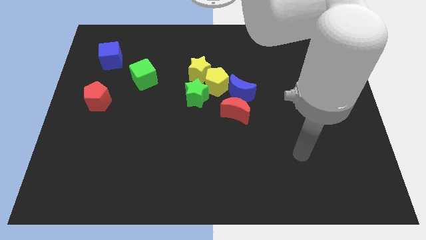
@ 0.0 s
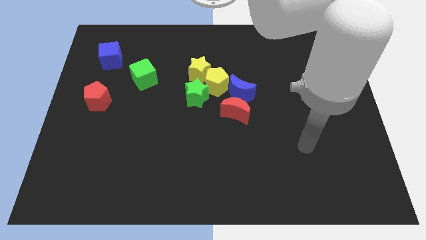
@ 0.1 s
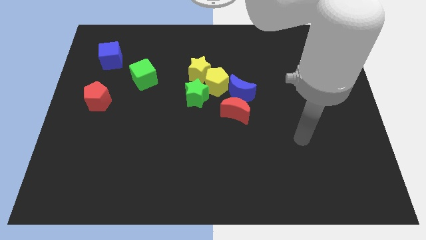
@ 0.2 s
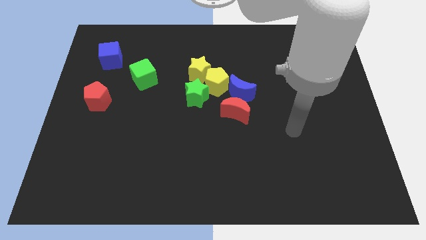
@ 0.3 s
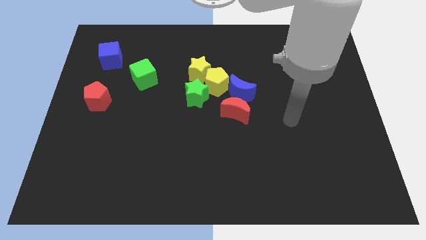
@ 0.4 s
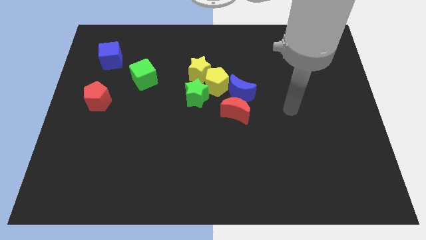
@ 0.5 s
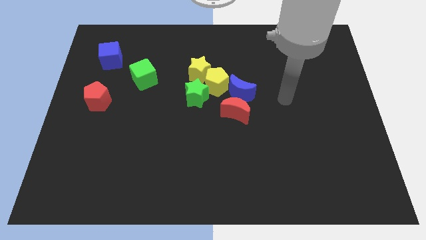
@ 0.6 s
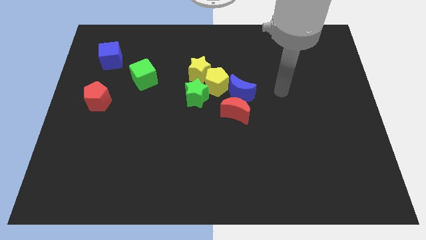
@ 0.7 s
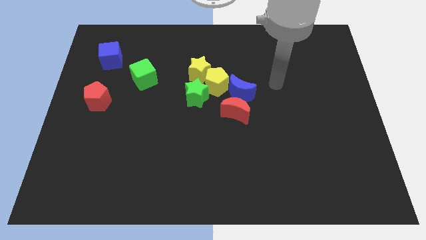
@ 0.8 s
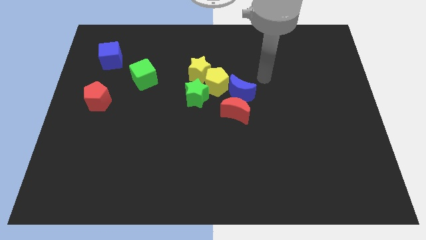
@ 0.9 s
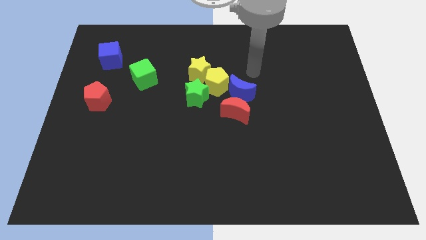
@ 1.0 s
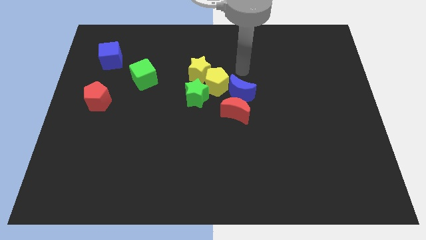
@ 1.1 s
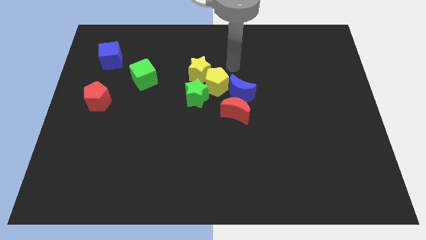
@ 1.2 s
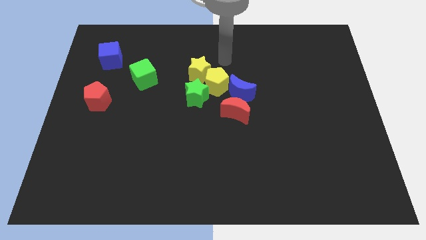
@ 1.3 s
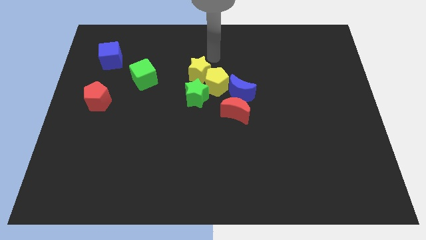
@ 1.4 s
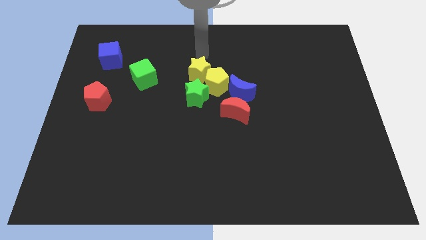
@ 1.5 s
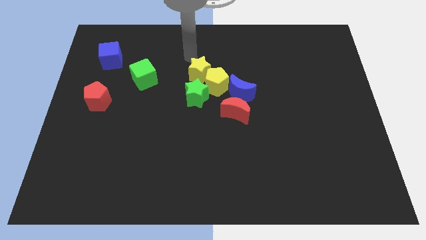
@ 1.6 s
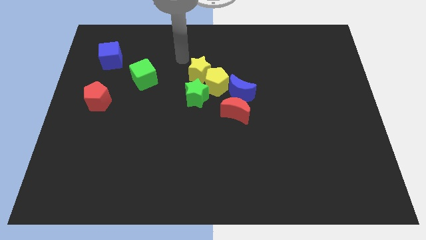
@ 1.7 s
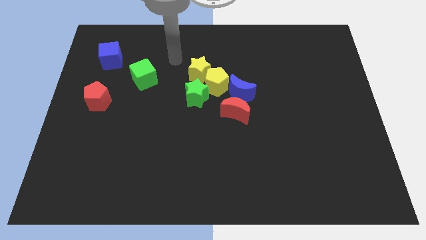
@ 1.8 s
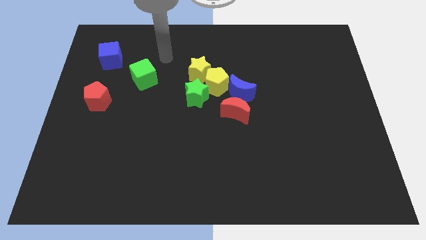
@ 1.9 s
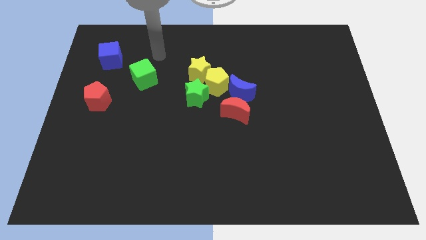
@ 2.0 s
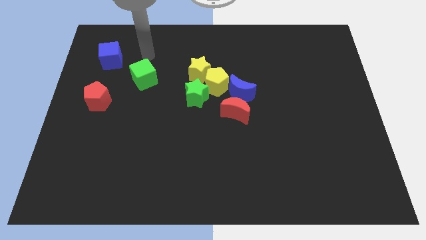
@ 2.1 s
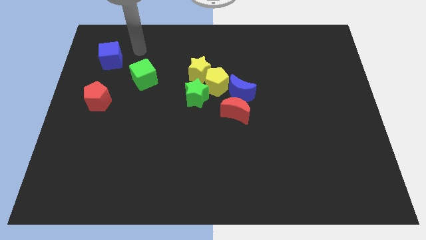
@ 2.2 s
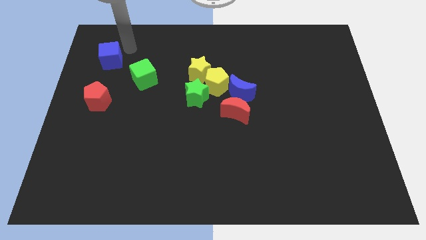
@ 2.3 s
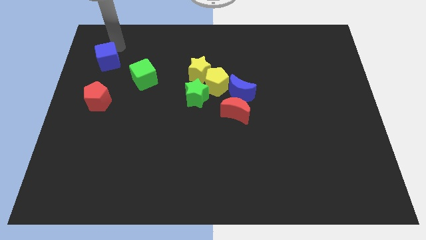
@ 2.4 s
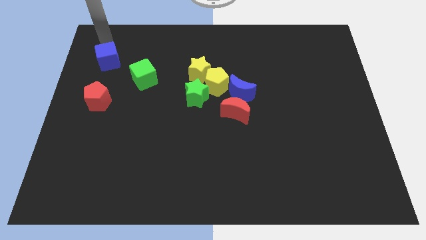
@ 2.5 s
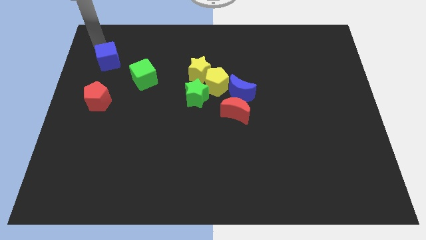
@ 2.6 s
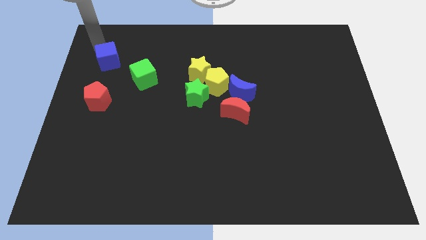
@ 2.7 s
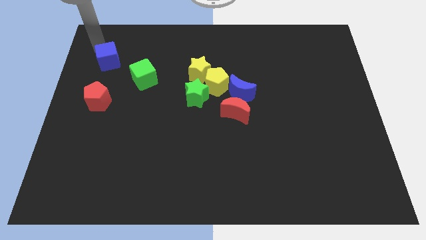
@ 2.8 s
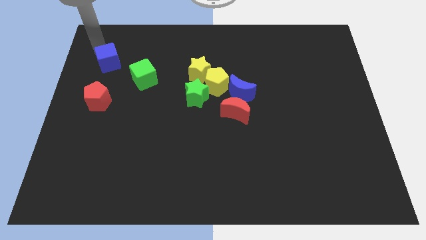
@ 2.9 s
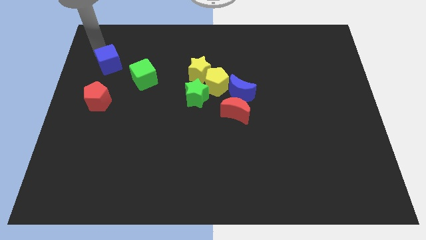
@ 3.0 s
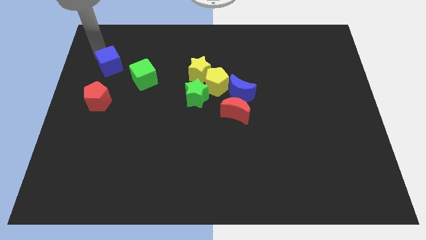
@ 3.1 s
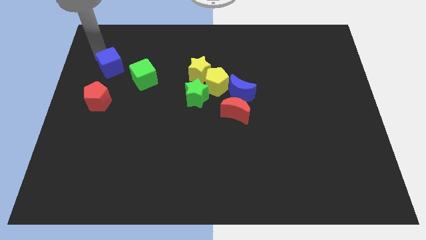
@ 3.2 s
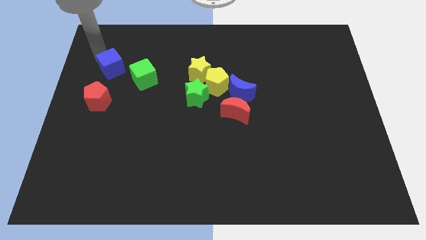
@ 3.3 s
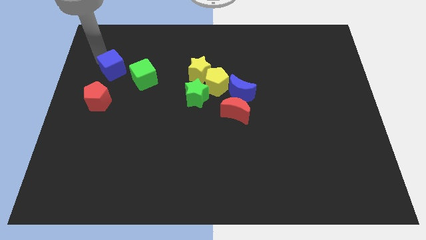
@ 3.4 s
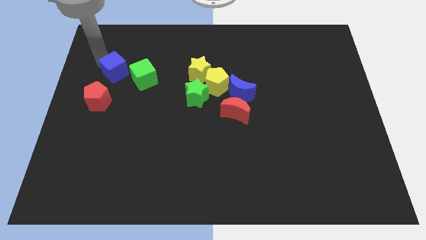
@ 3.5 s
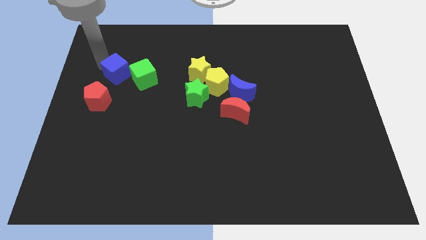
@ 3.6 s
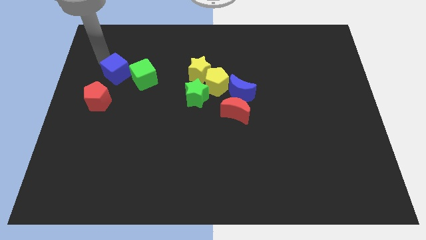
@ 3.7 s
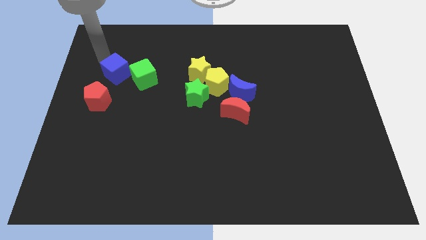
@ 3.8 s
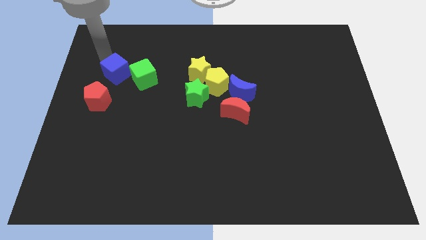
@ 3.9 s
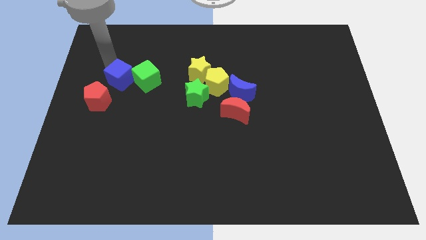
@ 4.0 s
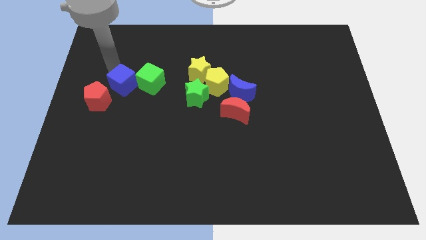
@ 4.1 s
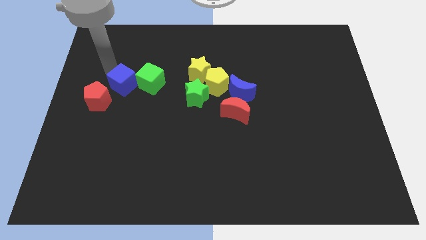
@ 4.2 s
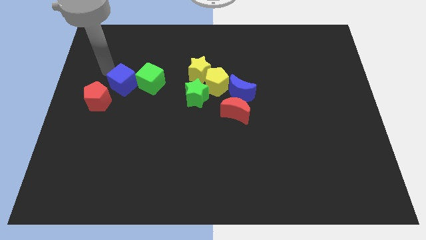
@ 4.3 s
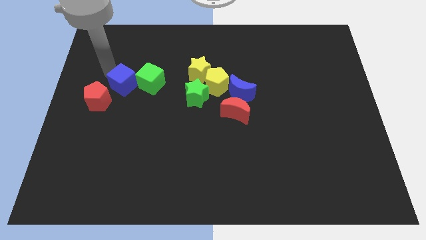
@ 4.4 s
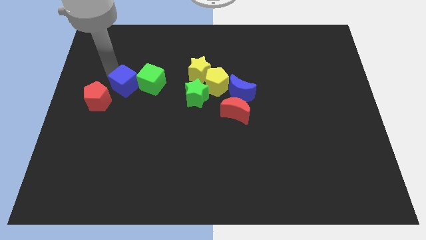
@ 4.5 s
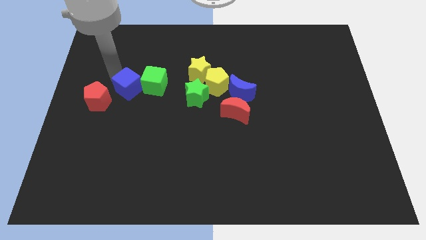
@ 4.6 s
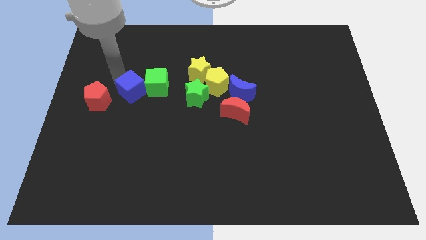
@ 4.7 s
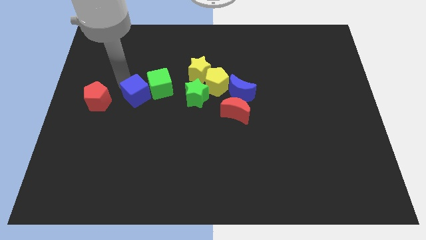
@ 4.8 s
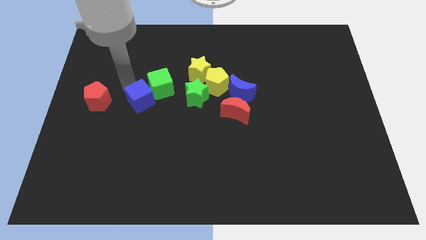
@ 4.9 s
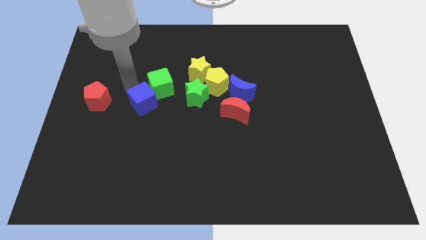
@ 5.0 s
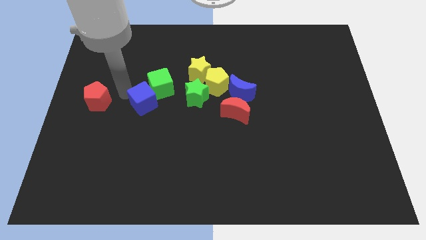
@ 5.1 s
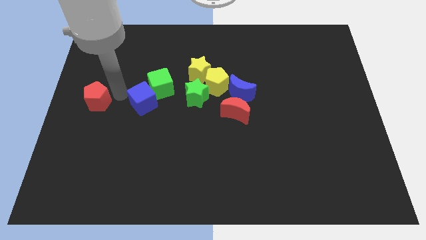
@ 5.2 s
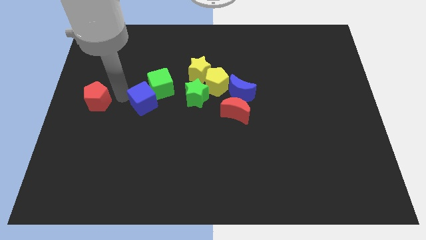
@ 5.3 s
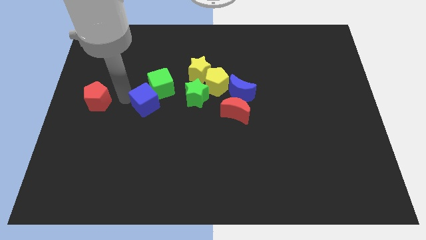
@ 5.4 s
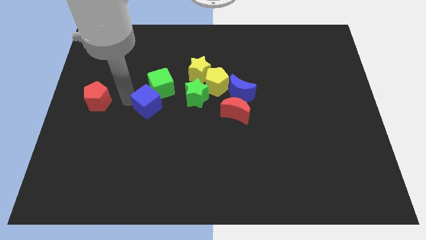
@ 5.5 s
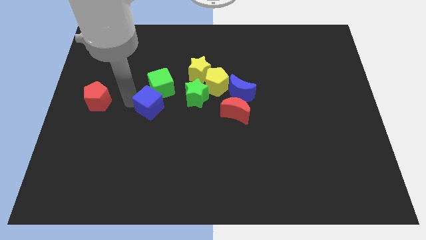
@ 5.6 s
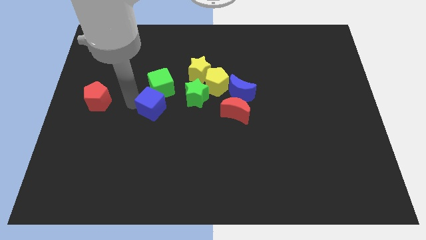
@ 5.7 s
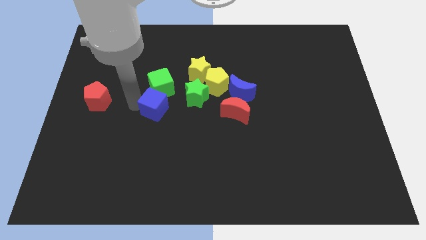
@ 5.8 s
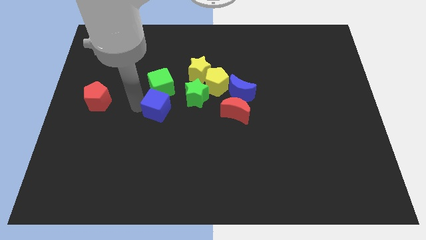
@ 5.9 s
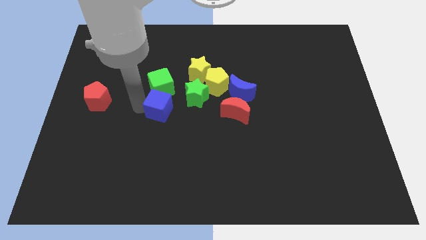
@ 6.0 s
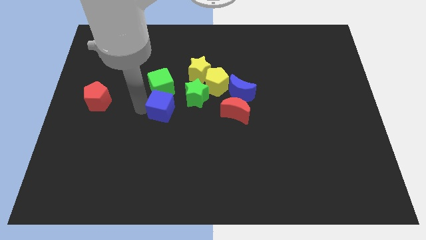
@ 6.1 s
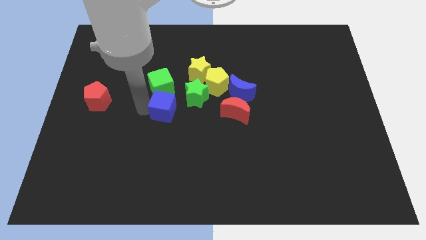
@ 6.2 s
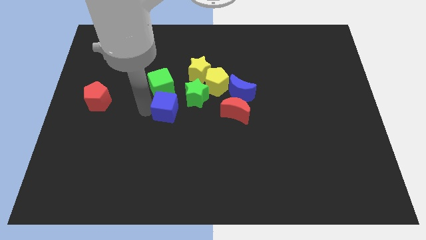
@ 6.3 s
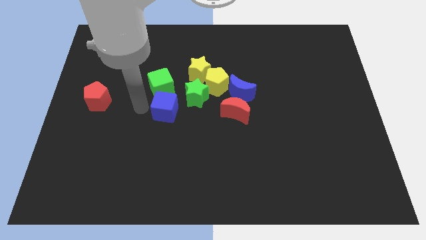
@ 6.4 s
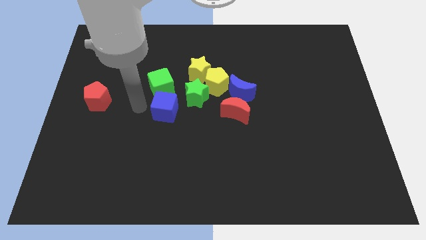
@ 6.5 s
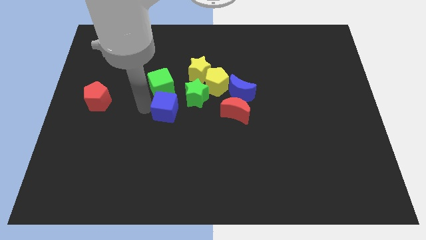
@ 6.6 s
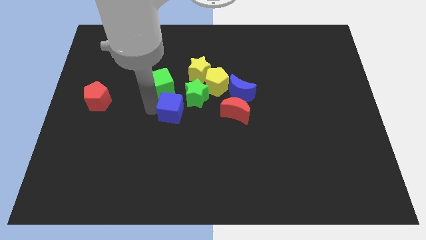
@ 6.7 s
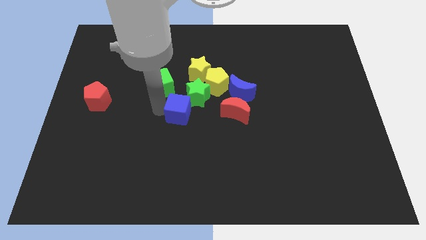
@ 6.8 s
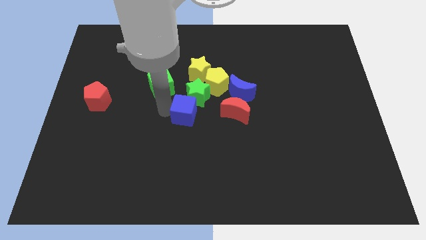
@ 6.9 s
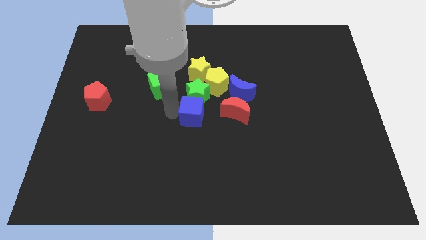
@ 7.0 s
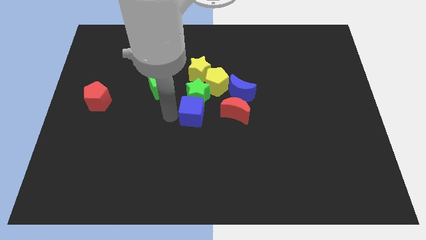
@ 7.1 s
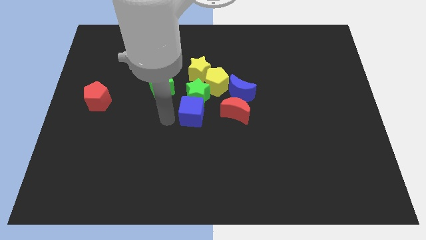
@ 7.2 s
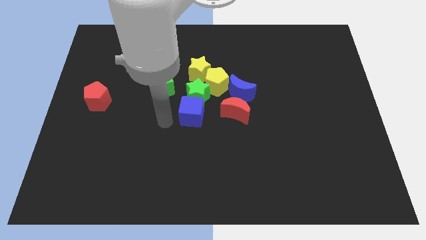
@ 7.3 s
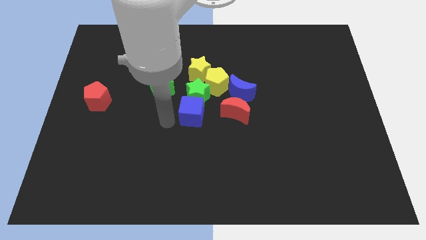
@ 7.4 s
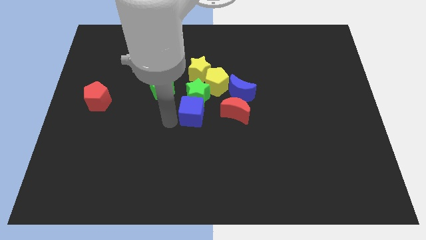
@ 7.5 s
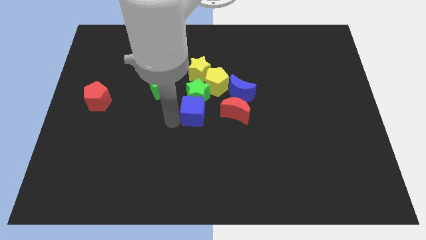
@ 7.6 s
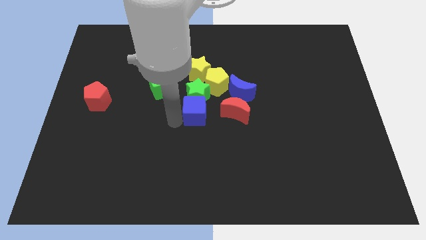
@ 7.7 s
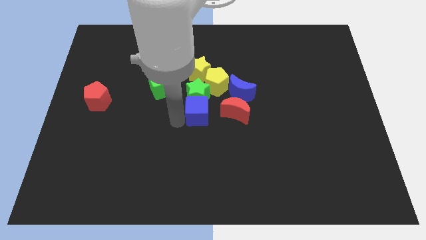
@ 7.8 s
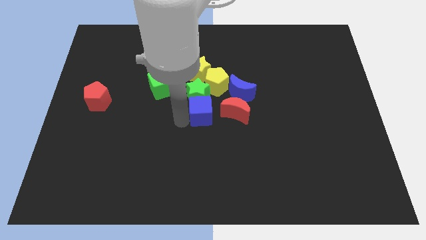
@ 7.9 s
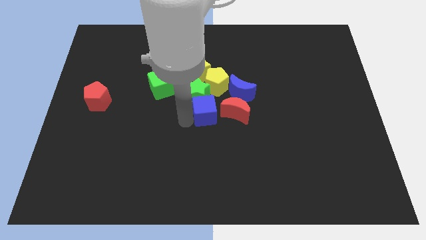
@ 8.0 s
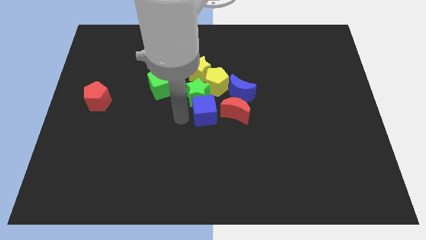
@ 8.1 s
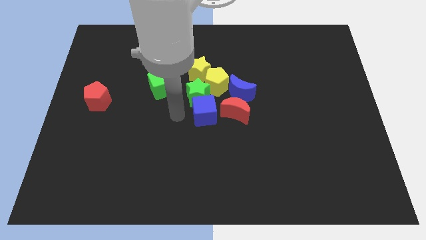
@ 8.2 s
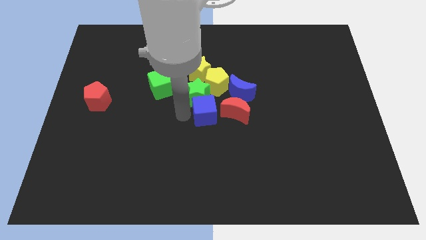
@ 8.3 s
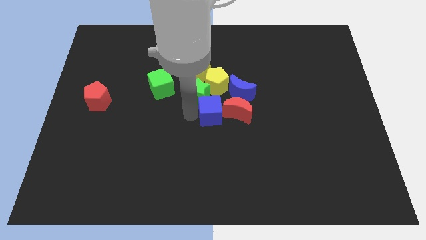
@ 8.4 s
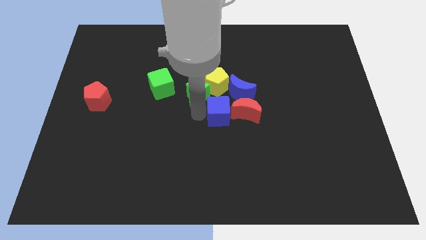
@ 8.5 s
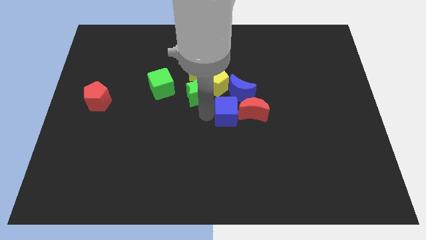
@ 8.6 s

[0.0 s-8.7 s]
slide the blue cube towards the red moon
